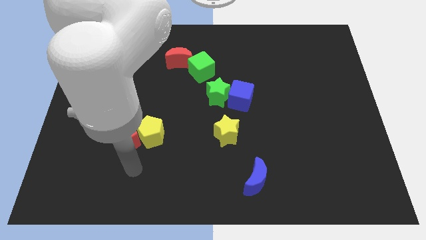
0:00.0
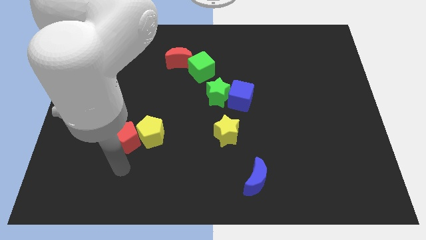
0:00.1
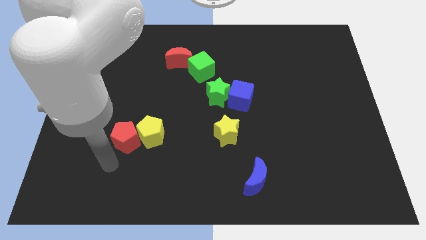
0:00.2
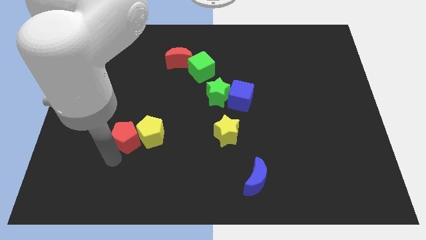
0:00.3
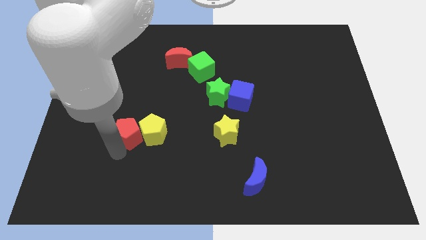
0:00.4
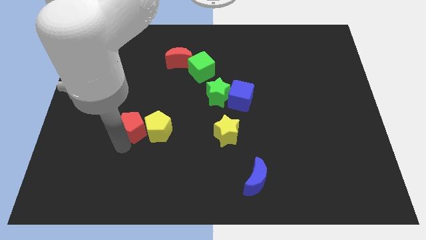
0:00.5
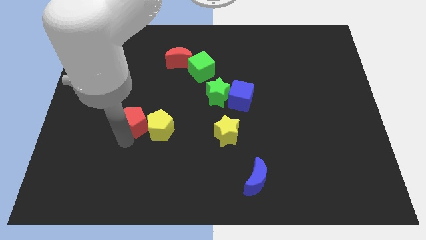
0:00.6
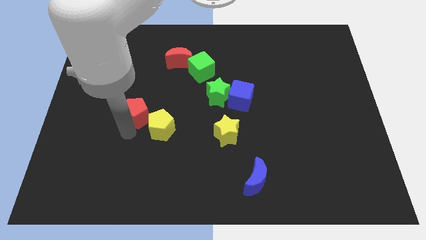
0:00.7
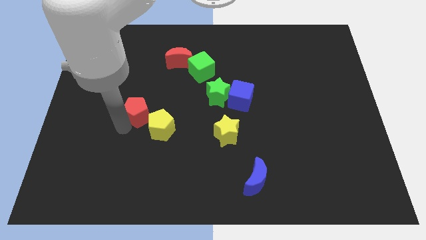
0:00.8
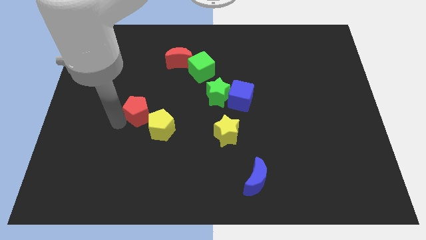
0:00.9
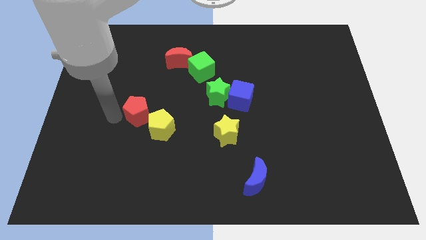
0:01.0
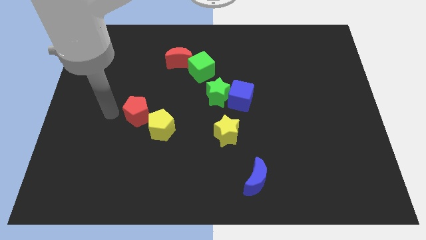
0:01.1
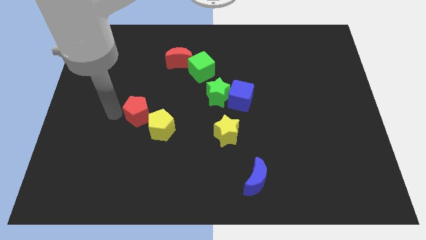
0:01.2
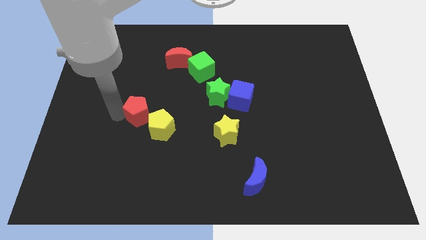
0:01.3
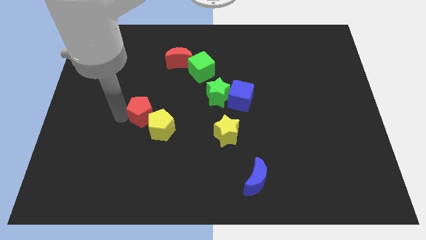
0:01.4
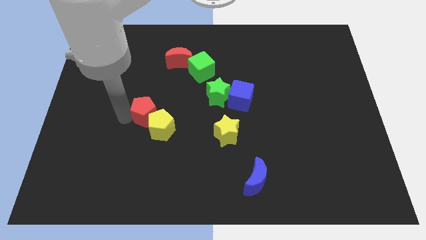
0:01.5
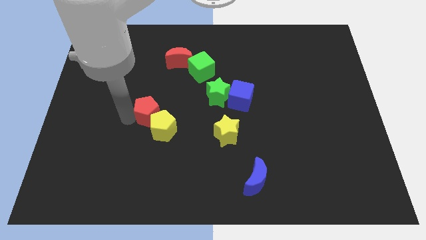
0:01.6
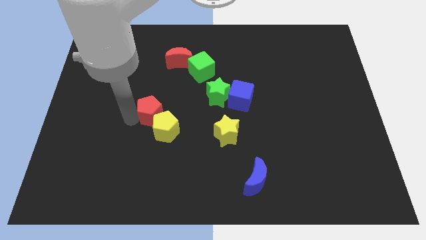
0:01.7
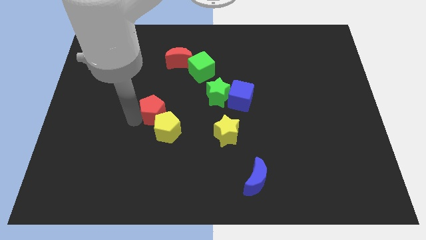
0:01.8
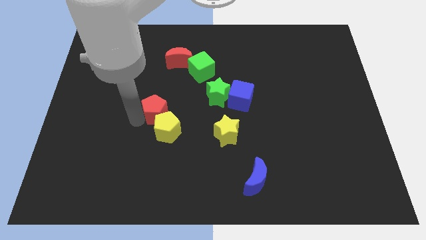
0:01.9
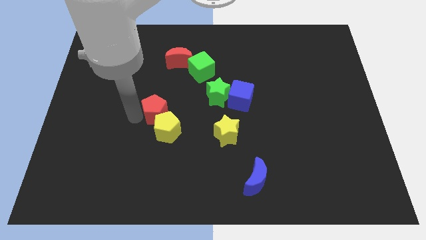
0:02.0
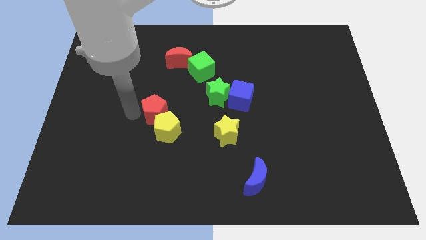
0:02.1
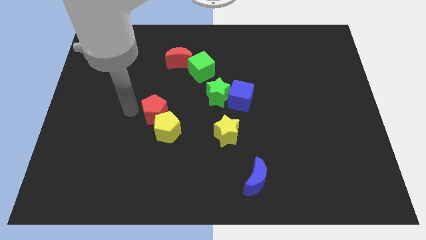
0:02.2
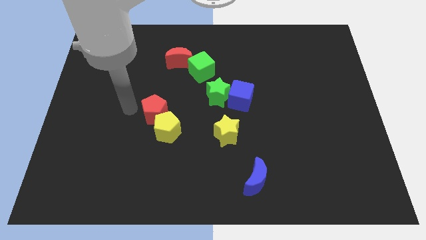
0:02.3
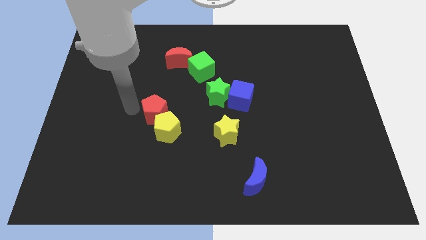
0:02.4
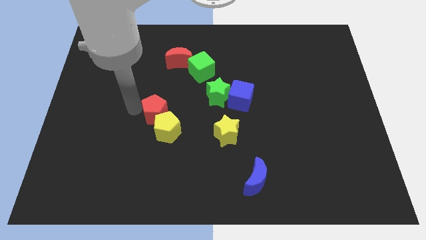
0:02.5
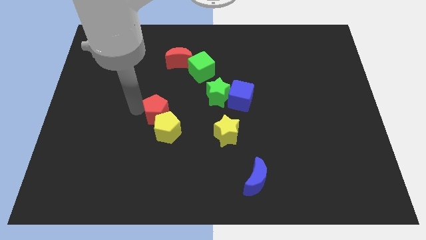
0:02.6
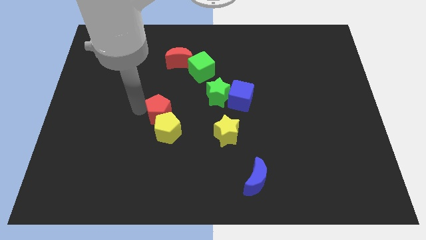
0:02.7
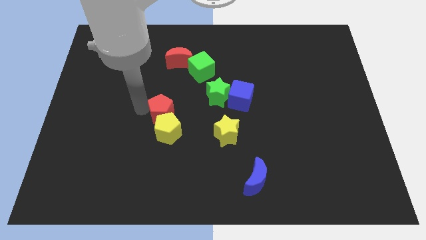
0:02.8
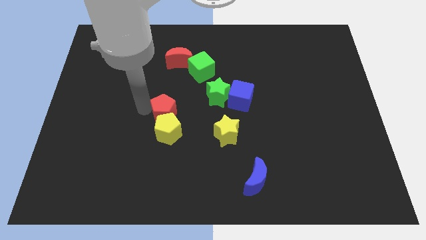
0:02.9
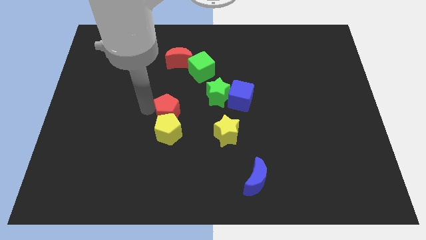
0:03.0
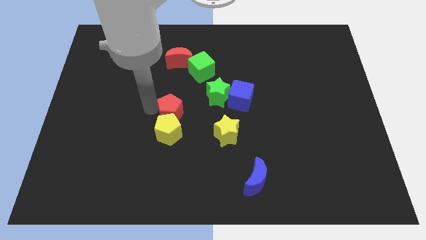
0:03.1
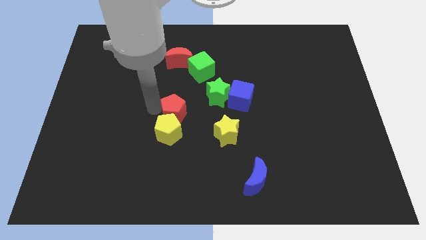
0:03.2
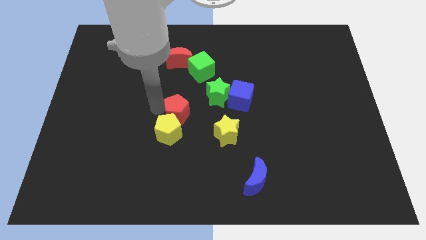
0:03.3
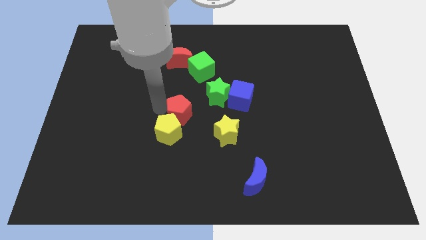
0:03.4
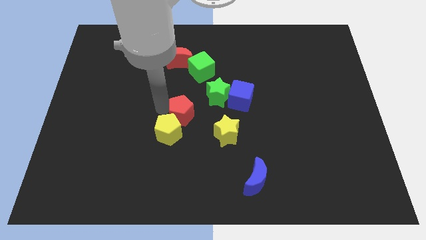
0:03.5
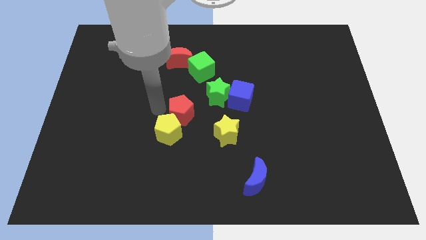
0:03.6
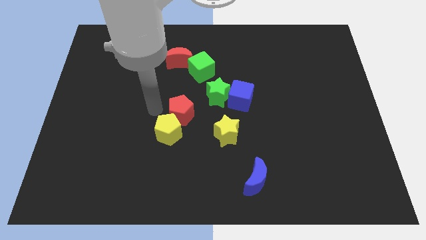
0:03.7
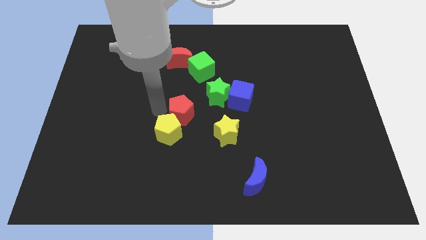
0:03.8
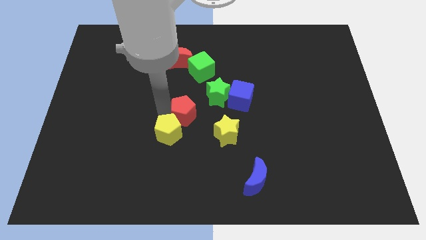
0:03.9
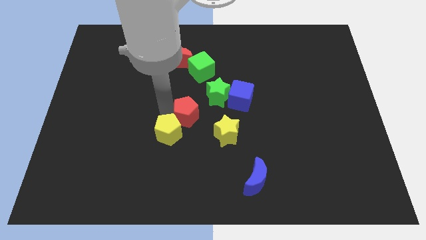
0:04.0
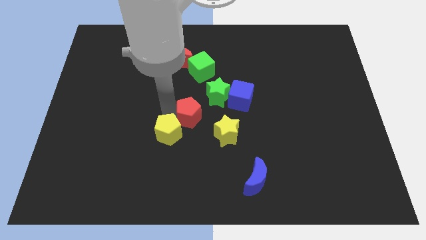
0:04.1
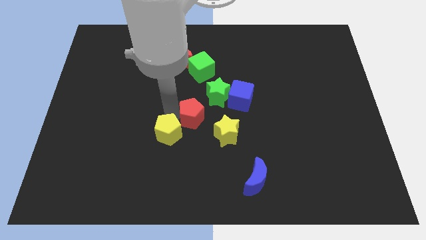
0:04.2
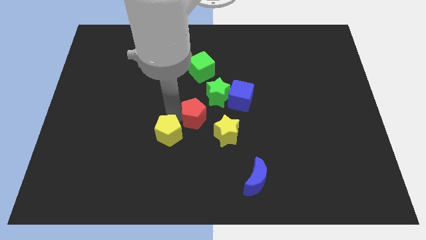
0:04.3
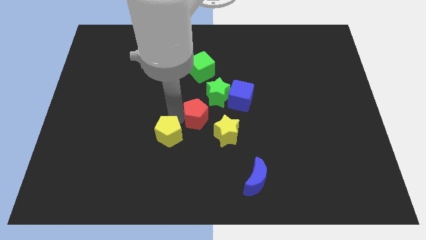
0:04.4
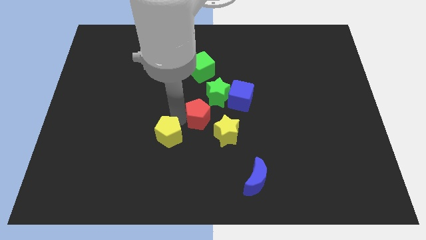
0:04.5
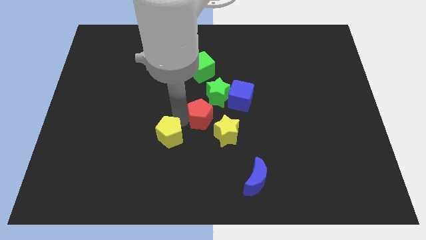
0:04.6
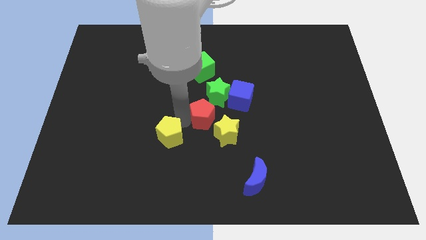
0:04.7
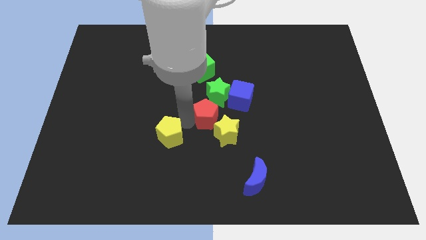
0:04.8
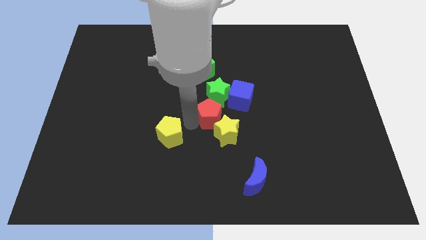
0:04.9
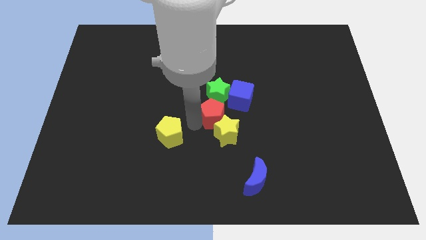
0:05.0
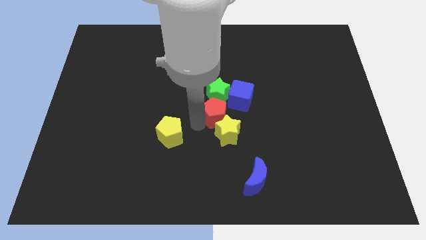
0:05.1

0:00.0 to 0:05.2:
move the red pentagon to the bottom right of the green star
